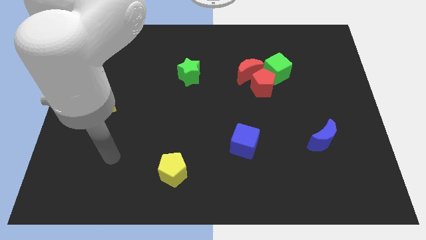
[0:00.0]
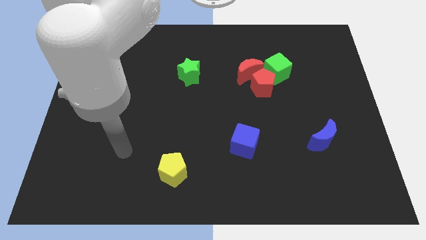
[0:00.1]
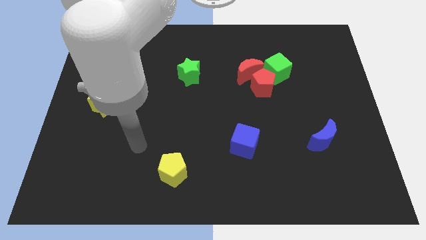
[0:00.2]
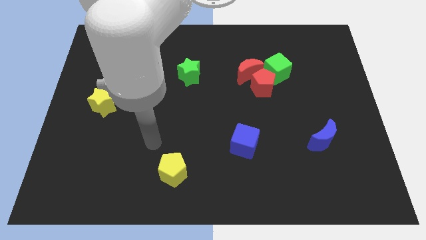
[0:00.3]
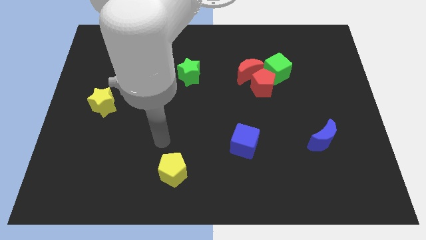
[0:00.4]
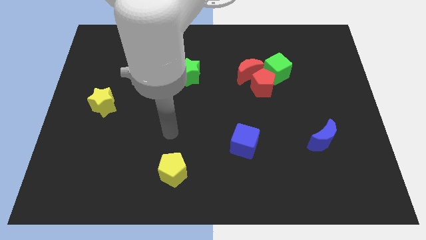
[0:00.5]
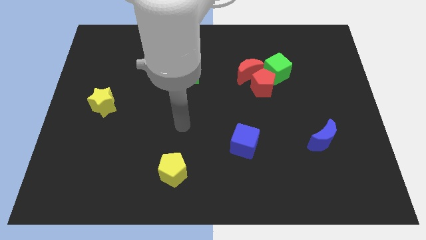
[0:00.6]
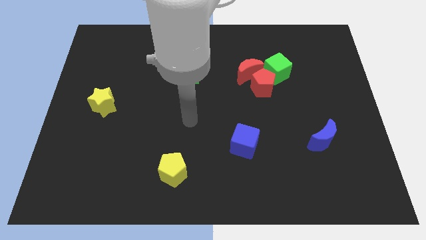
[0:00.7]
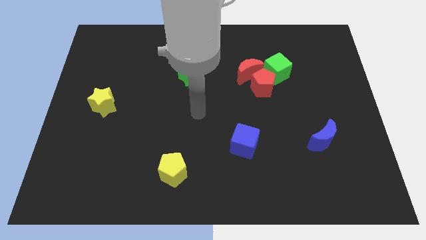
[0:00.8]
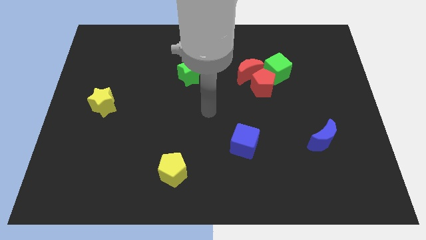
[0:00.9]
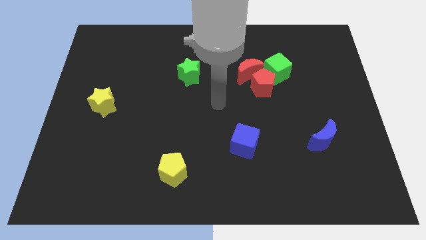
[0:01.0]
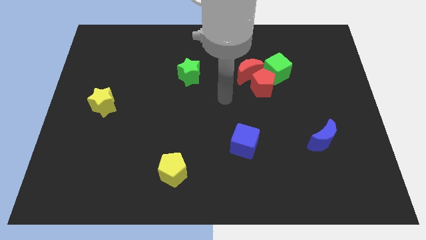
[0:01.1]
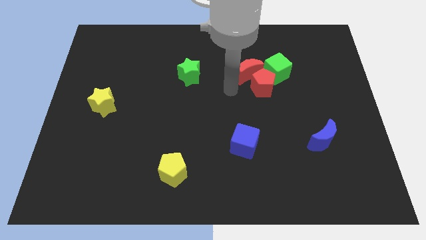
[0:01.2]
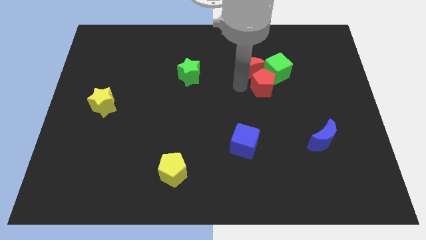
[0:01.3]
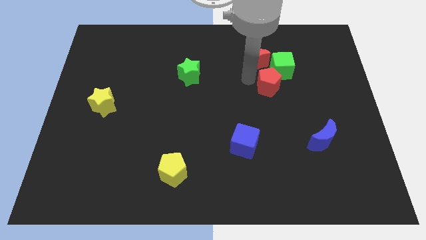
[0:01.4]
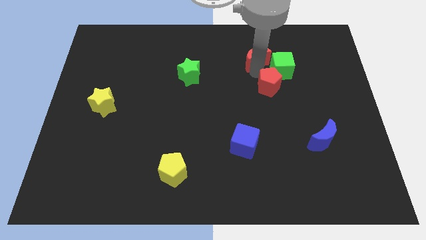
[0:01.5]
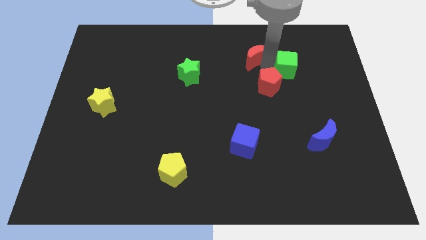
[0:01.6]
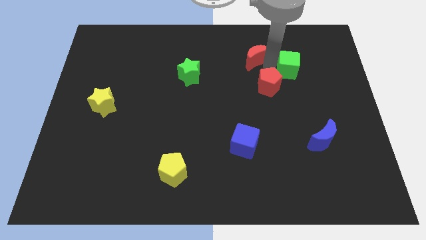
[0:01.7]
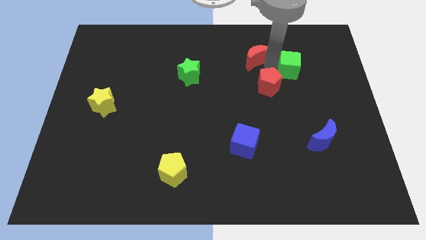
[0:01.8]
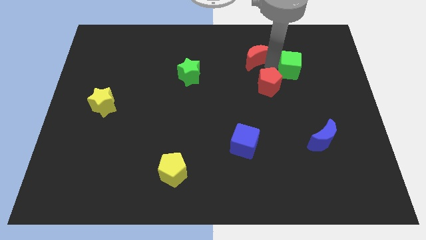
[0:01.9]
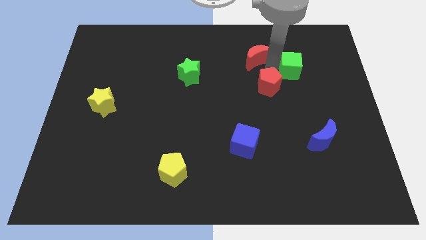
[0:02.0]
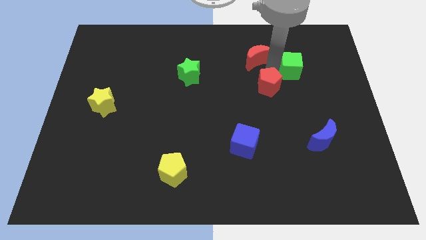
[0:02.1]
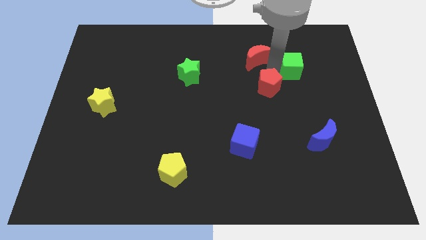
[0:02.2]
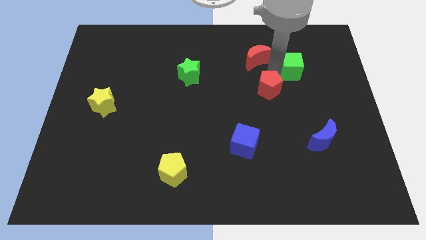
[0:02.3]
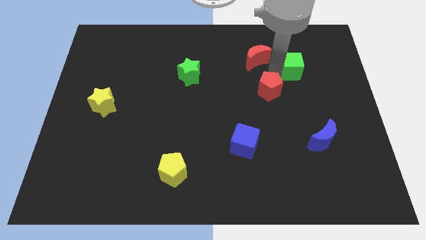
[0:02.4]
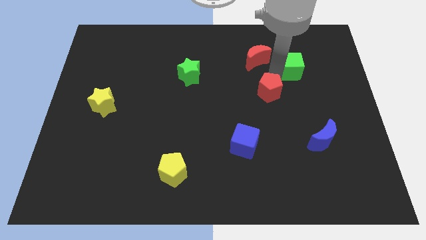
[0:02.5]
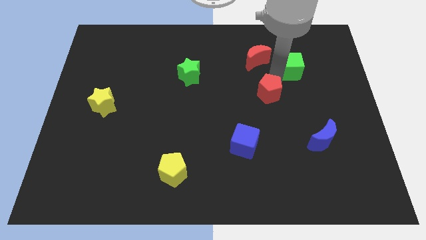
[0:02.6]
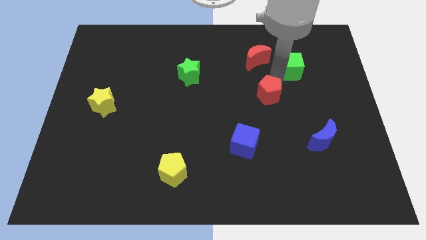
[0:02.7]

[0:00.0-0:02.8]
pull the red pentagon apart from the red moon and green cube

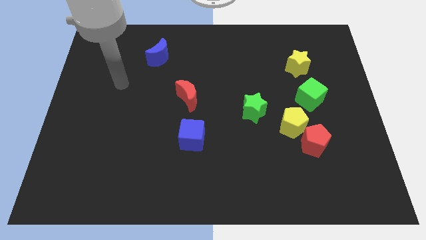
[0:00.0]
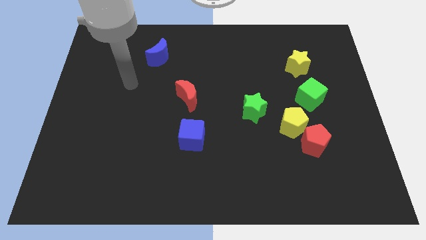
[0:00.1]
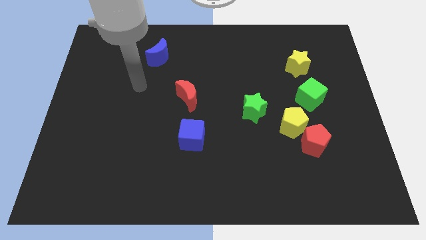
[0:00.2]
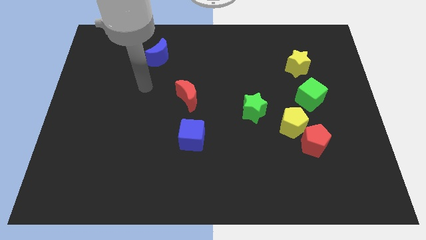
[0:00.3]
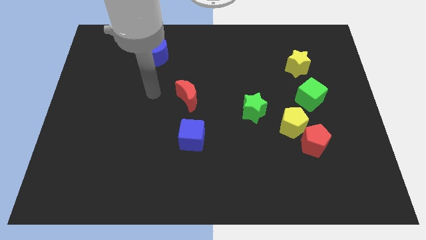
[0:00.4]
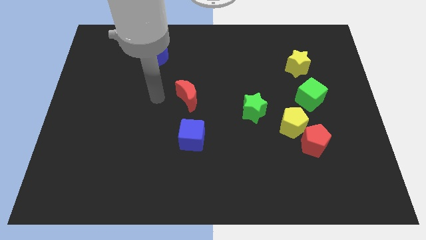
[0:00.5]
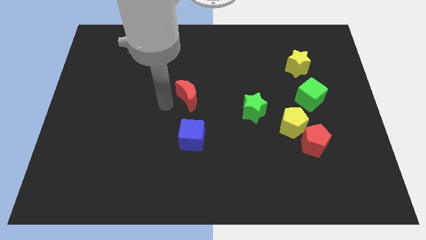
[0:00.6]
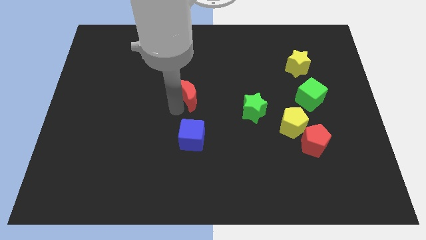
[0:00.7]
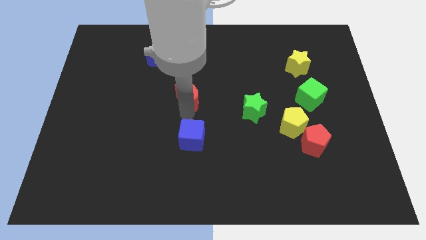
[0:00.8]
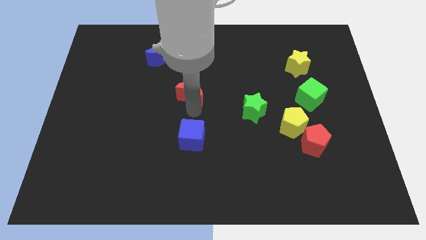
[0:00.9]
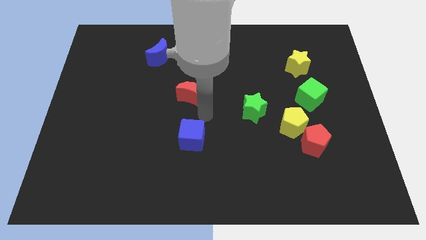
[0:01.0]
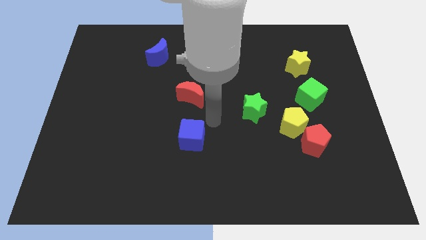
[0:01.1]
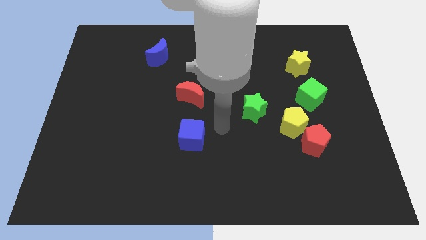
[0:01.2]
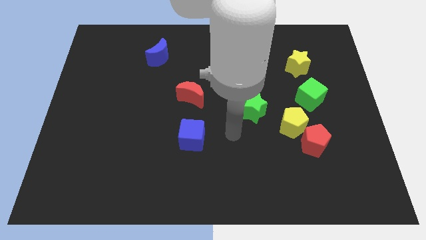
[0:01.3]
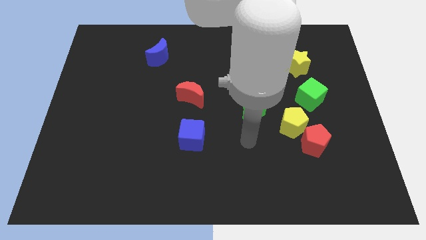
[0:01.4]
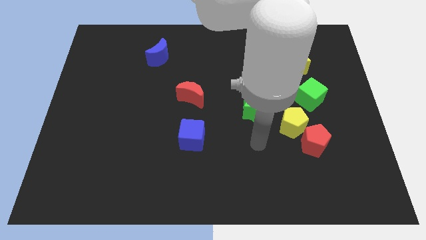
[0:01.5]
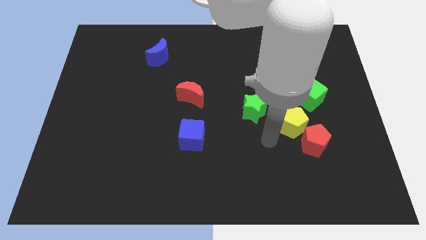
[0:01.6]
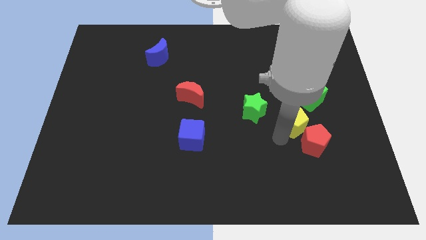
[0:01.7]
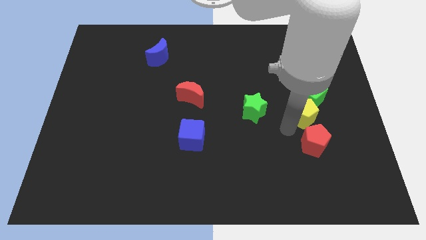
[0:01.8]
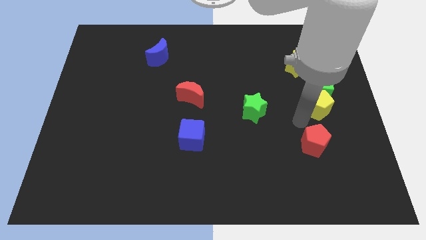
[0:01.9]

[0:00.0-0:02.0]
move the red pentagon away from the yellow pentagon

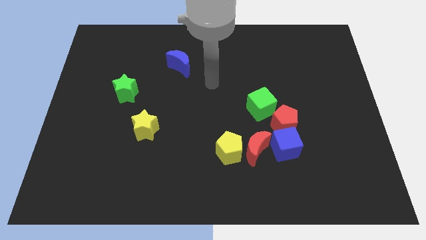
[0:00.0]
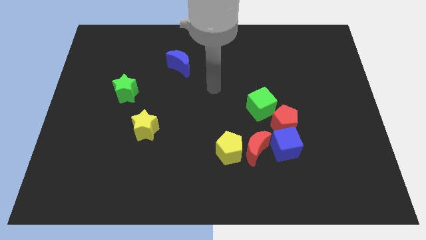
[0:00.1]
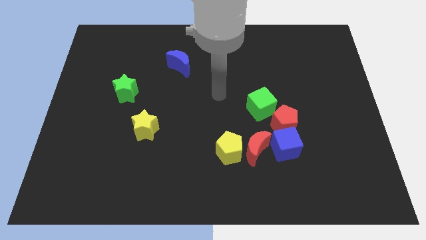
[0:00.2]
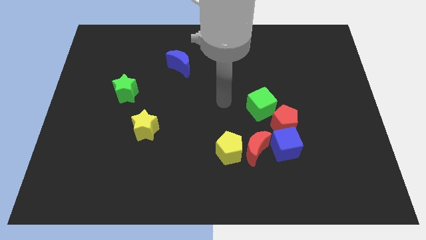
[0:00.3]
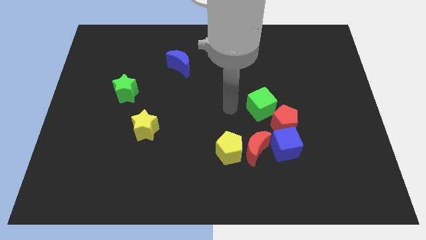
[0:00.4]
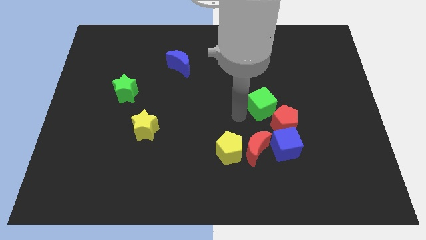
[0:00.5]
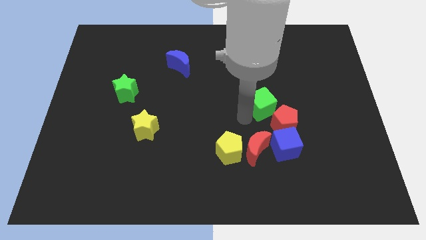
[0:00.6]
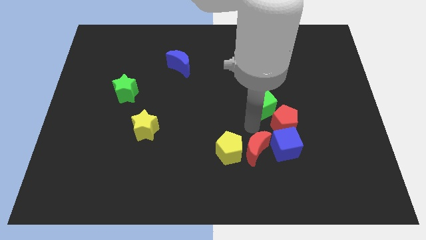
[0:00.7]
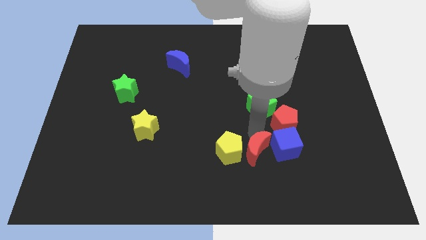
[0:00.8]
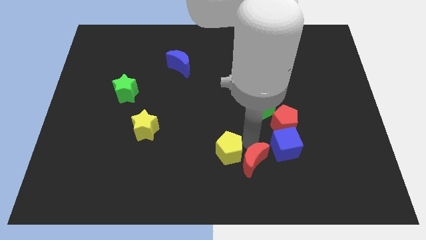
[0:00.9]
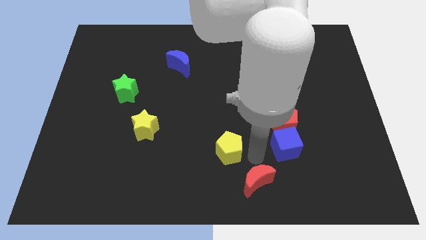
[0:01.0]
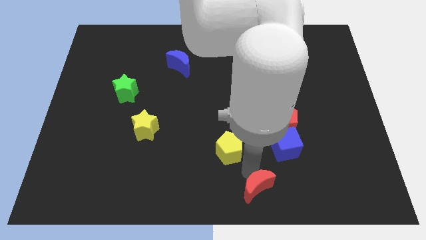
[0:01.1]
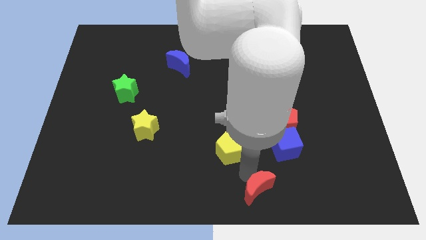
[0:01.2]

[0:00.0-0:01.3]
move the yellow pentagon away from the red moon

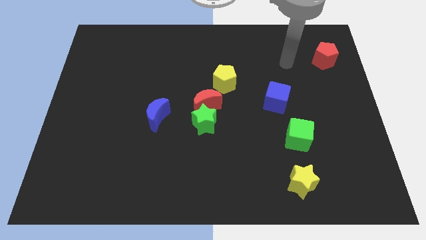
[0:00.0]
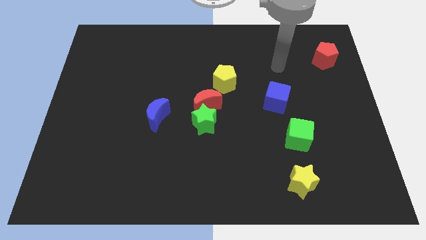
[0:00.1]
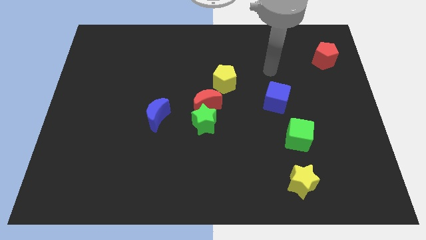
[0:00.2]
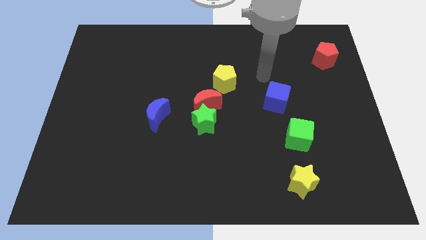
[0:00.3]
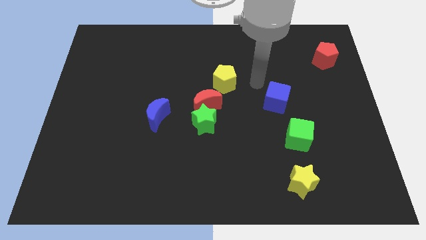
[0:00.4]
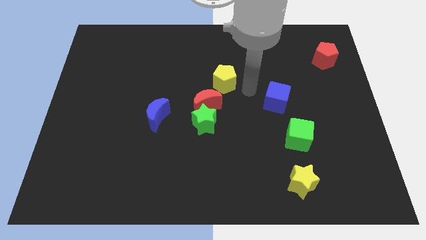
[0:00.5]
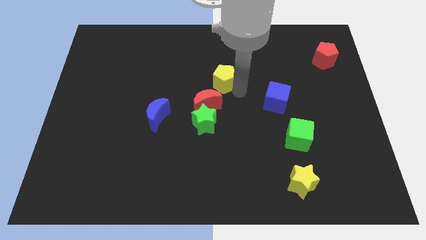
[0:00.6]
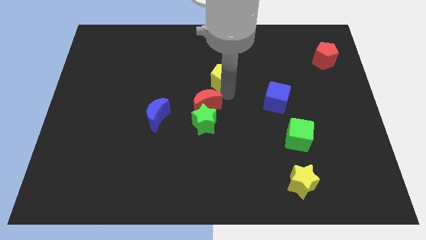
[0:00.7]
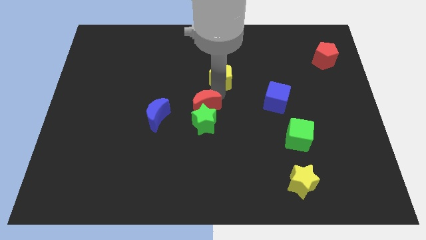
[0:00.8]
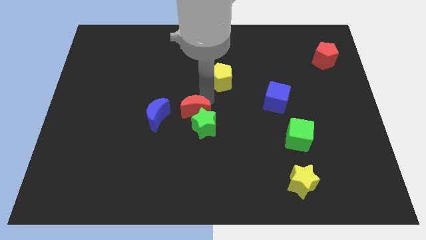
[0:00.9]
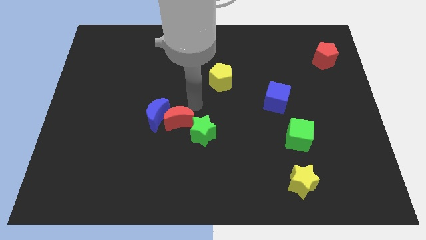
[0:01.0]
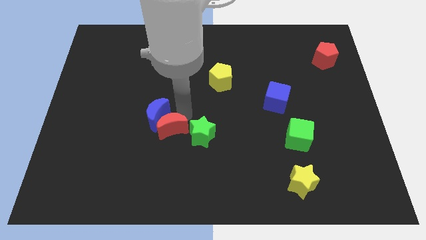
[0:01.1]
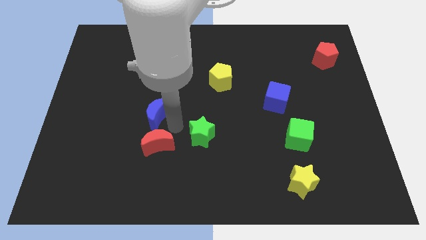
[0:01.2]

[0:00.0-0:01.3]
move the green star away from the red moon

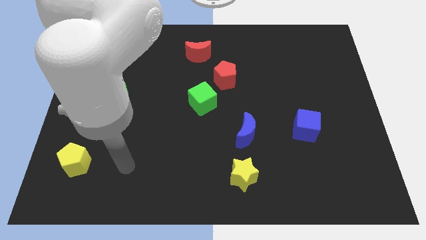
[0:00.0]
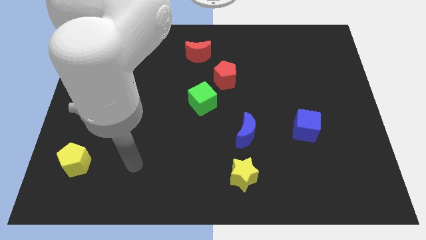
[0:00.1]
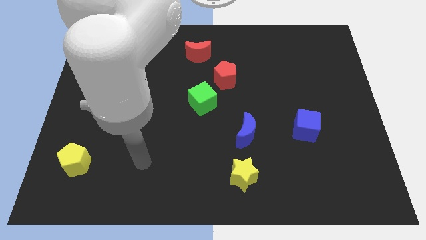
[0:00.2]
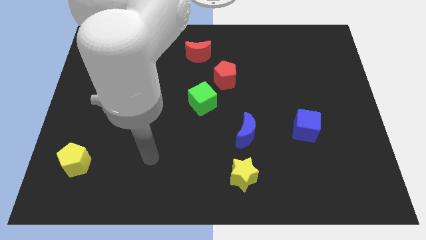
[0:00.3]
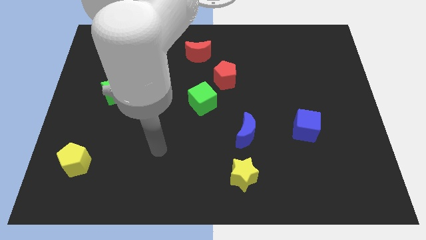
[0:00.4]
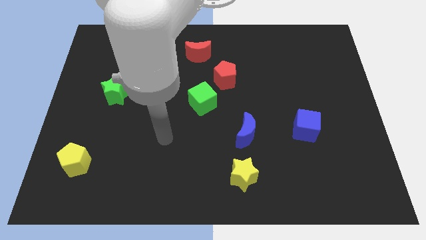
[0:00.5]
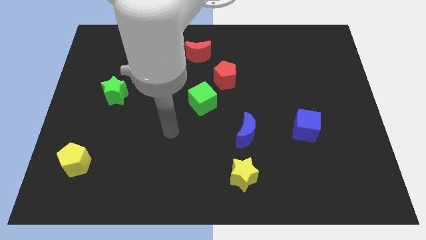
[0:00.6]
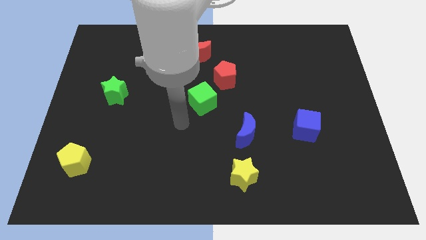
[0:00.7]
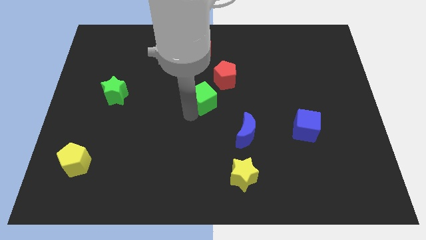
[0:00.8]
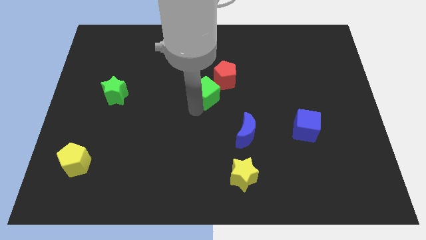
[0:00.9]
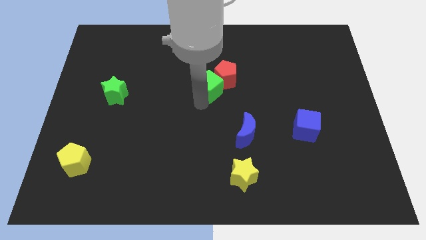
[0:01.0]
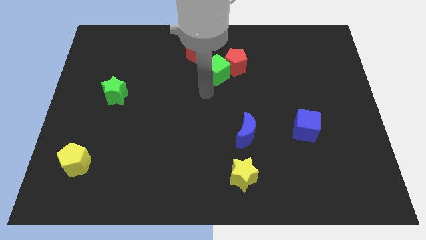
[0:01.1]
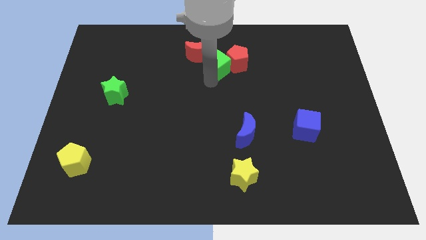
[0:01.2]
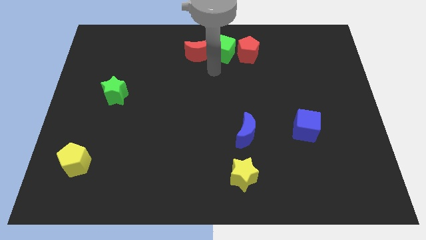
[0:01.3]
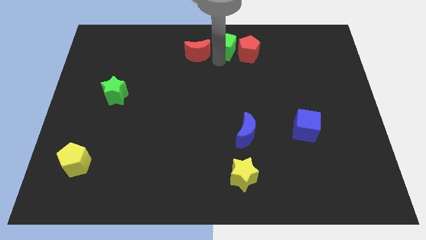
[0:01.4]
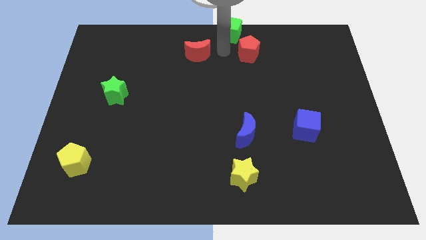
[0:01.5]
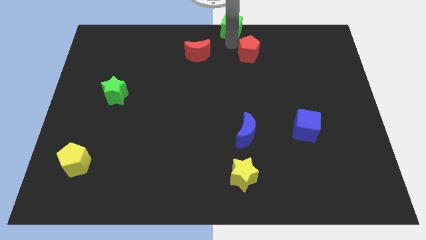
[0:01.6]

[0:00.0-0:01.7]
pull the red pentagon apart from the green cube

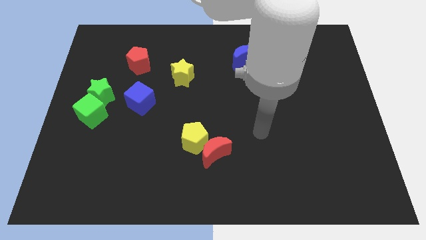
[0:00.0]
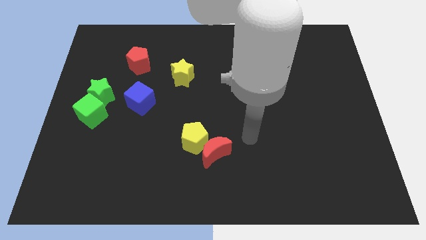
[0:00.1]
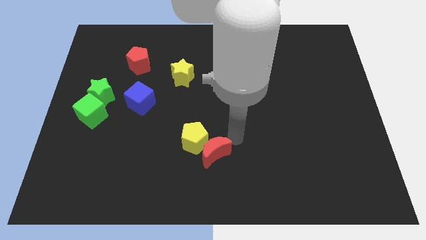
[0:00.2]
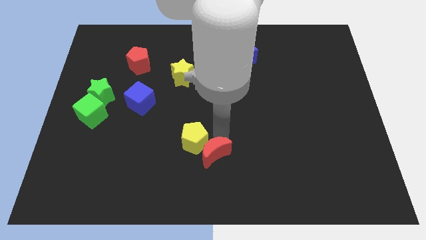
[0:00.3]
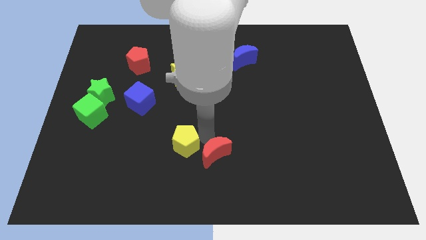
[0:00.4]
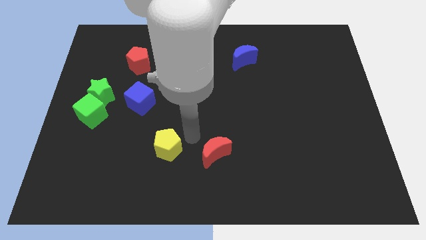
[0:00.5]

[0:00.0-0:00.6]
move the red moon away from the yellow pentagon
